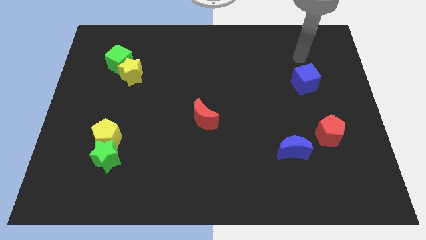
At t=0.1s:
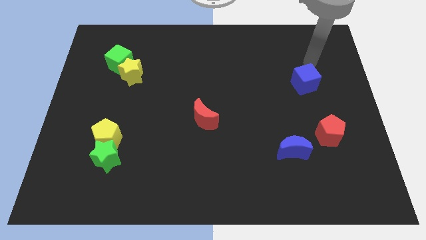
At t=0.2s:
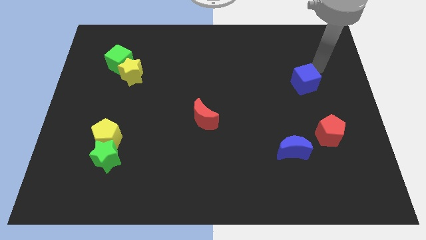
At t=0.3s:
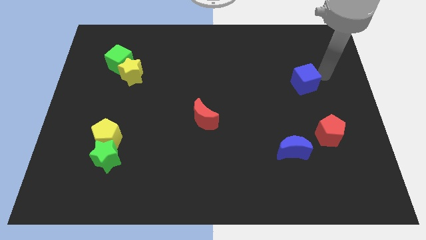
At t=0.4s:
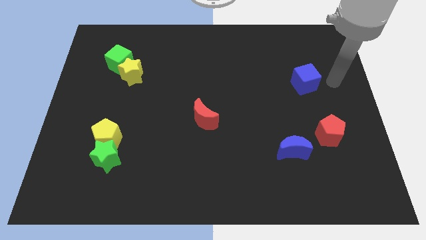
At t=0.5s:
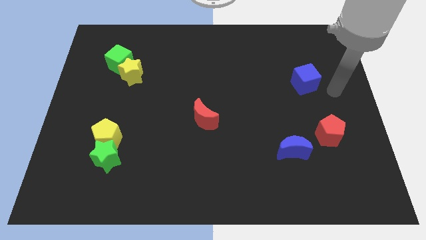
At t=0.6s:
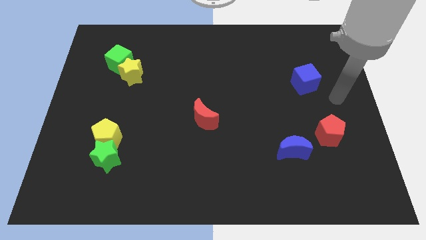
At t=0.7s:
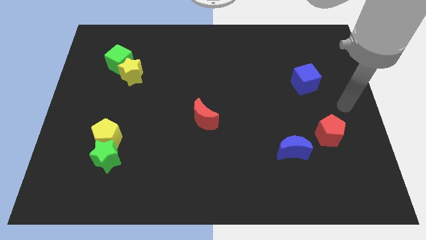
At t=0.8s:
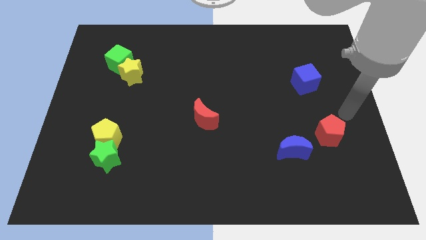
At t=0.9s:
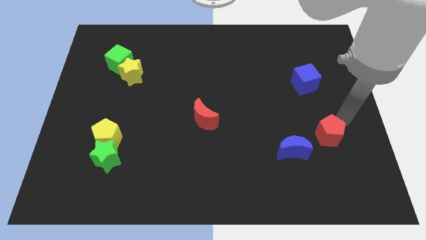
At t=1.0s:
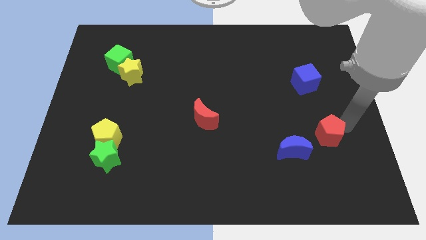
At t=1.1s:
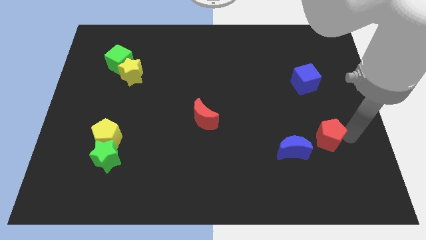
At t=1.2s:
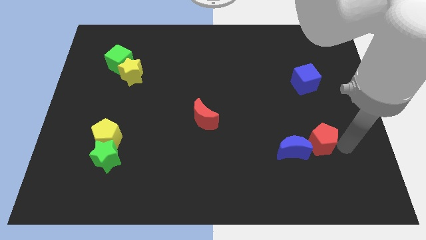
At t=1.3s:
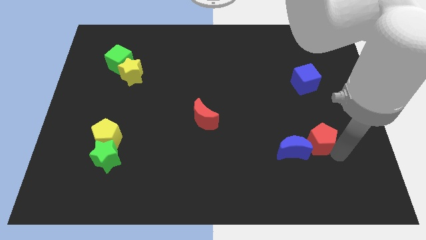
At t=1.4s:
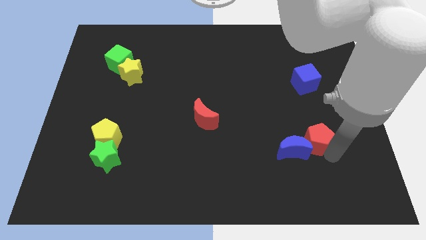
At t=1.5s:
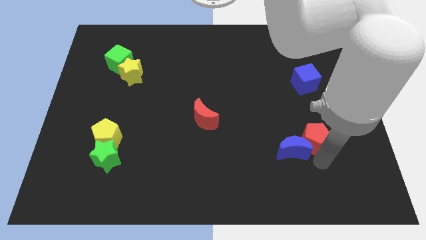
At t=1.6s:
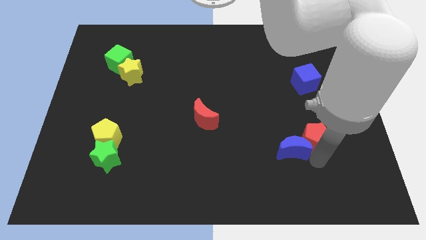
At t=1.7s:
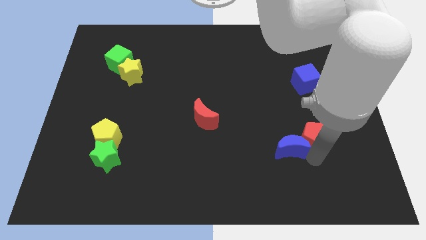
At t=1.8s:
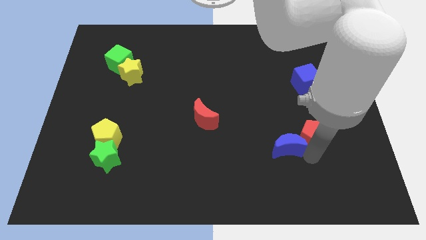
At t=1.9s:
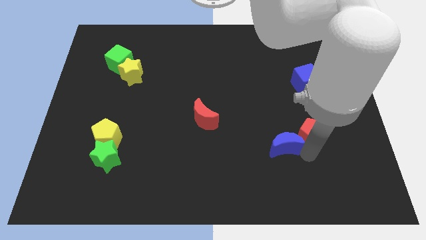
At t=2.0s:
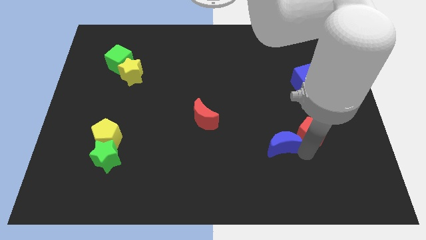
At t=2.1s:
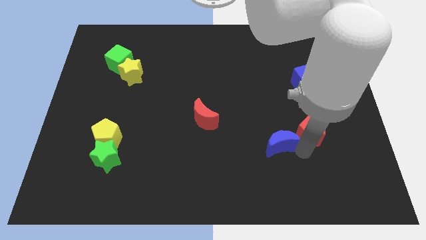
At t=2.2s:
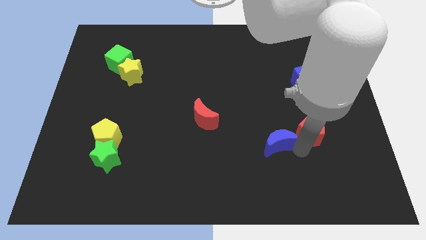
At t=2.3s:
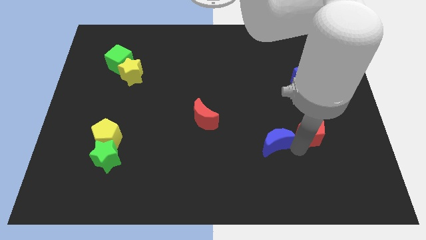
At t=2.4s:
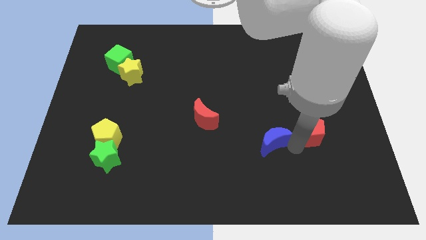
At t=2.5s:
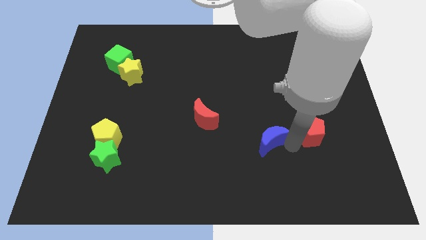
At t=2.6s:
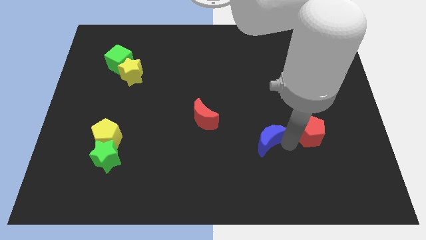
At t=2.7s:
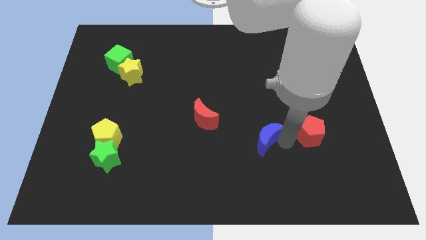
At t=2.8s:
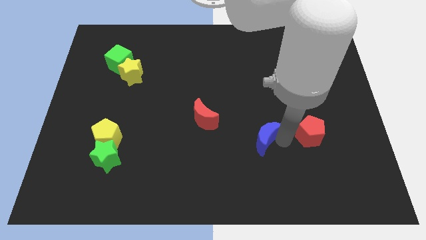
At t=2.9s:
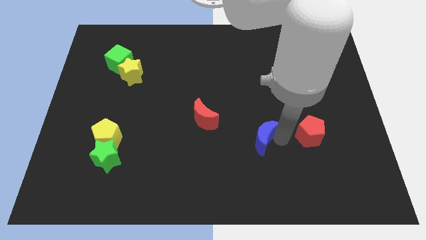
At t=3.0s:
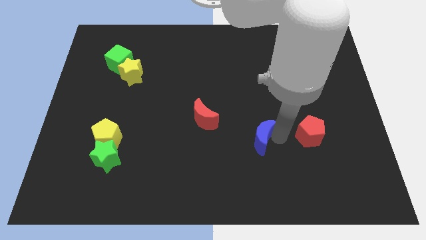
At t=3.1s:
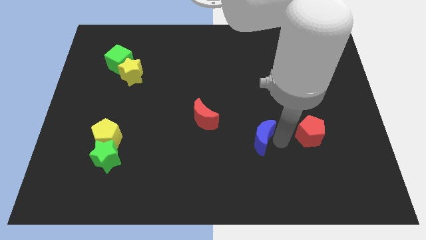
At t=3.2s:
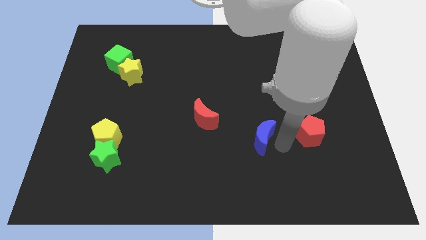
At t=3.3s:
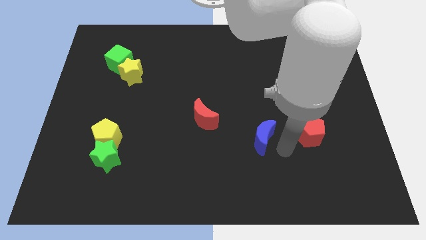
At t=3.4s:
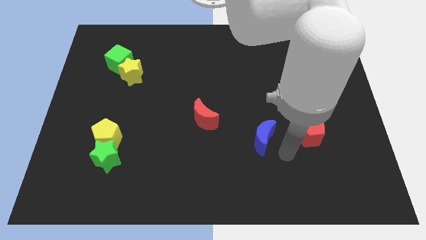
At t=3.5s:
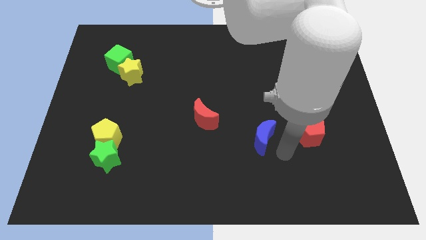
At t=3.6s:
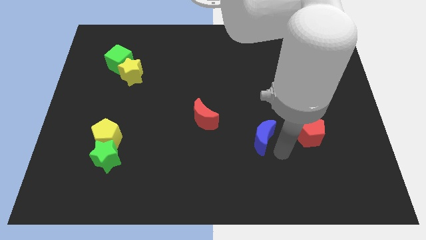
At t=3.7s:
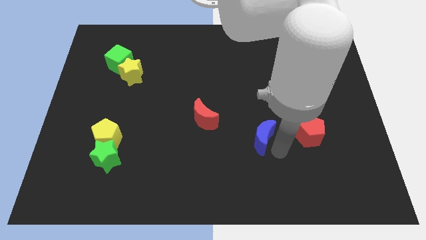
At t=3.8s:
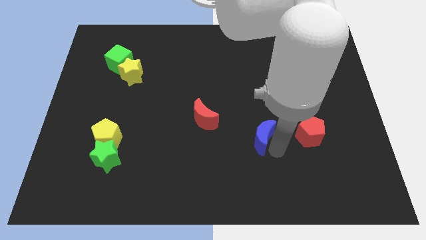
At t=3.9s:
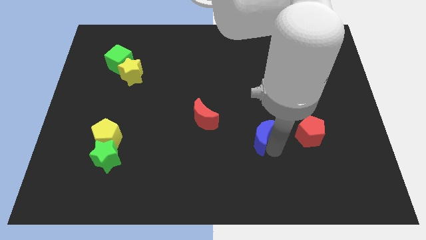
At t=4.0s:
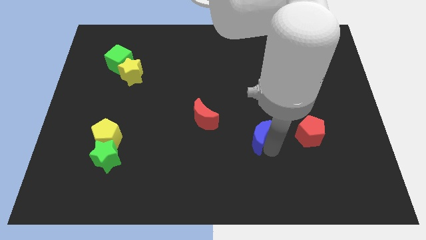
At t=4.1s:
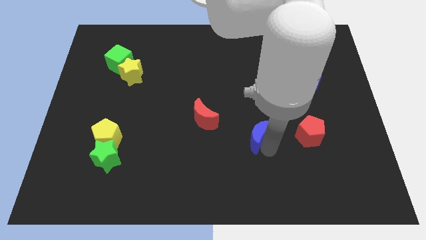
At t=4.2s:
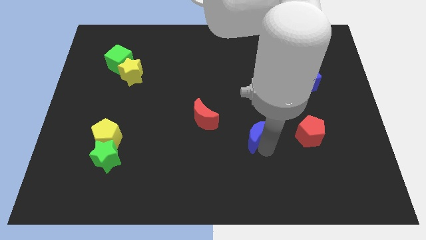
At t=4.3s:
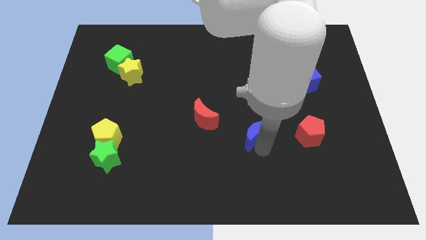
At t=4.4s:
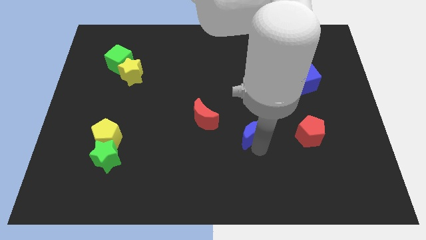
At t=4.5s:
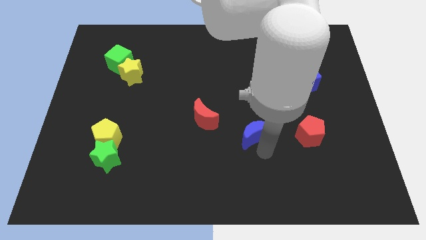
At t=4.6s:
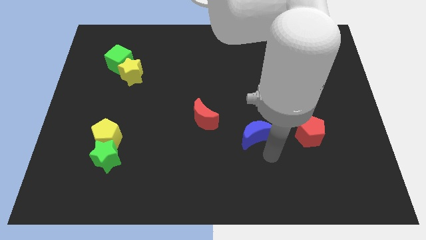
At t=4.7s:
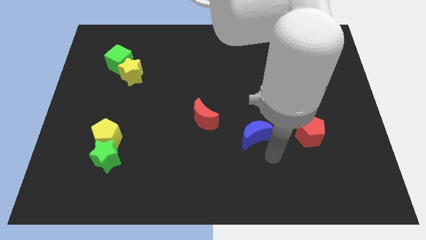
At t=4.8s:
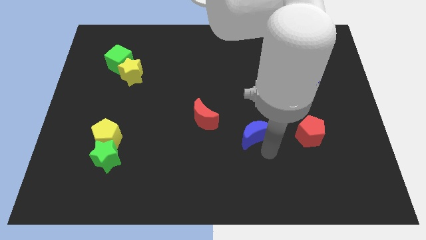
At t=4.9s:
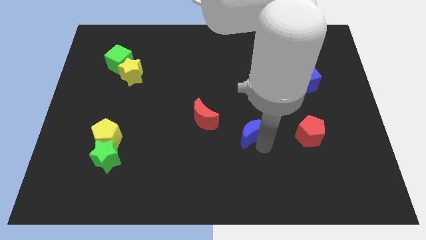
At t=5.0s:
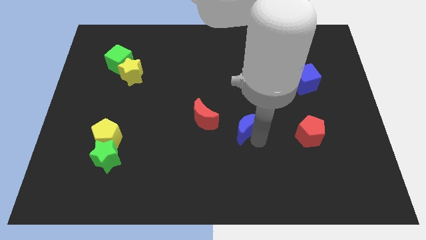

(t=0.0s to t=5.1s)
push the blue moon to the center

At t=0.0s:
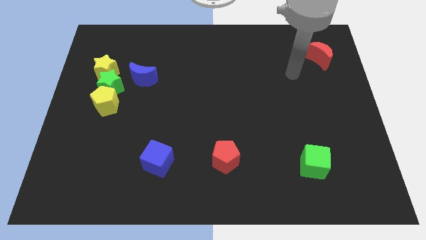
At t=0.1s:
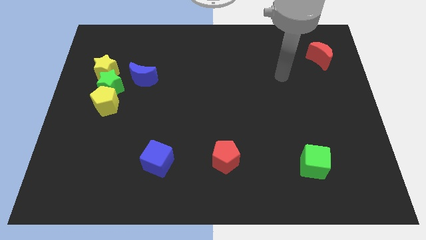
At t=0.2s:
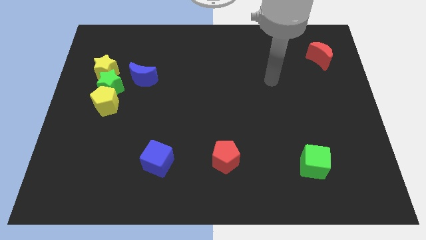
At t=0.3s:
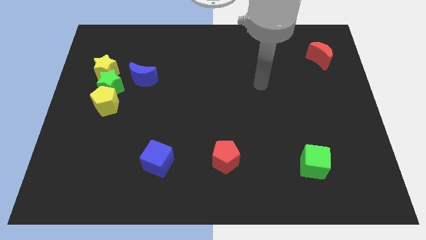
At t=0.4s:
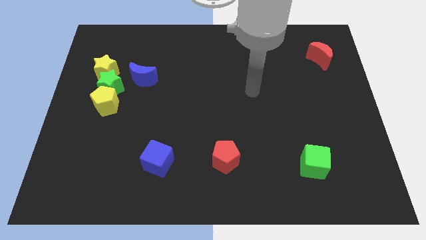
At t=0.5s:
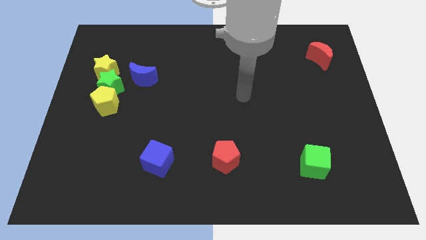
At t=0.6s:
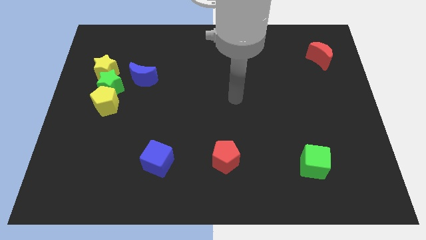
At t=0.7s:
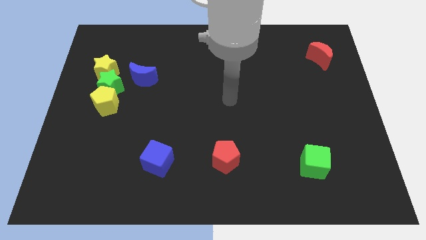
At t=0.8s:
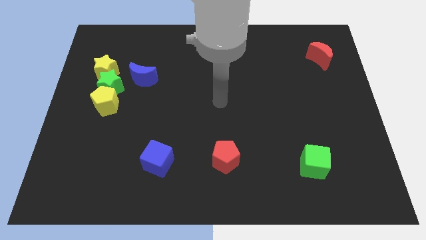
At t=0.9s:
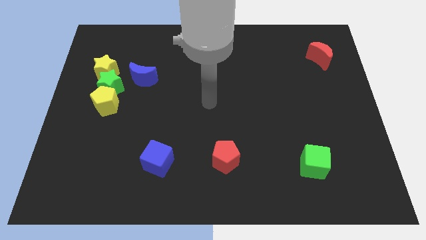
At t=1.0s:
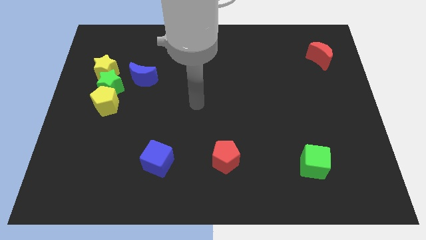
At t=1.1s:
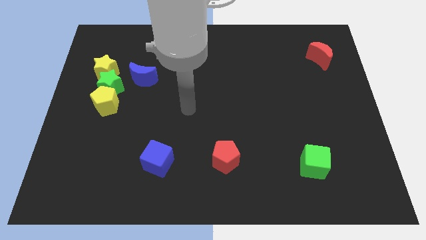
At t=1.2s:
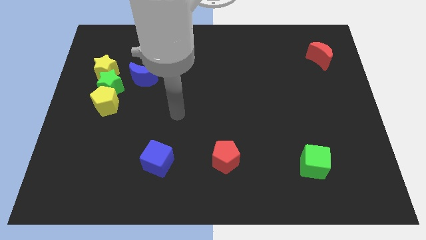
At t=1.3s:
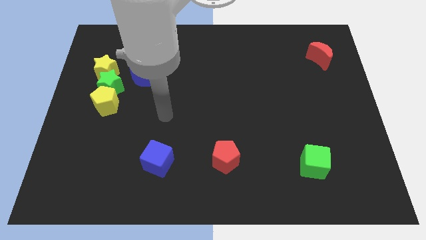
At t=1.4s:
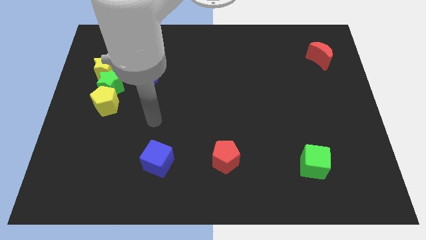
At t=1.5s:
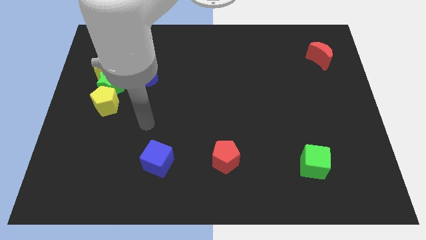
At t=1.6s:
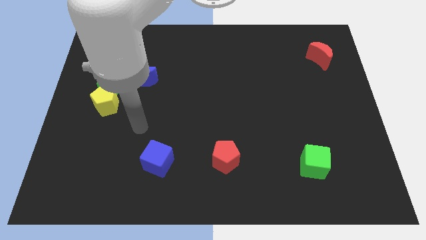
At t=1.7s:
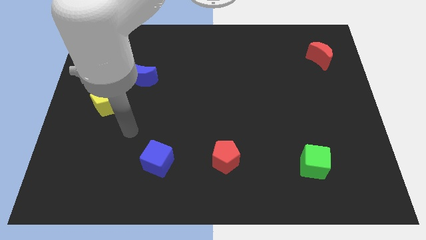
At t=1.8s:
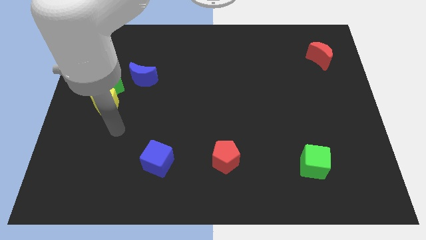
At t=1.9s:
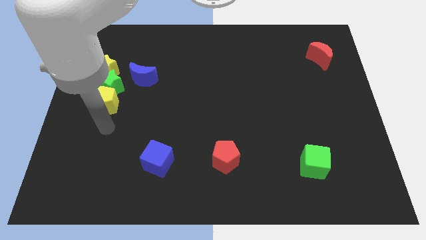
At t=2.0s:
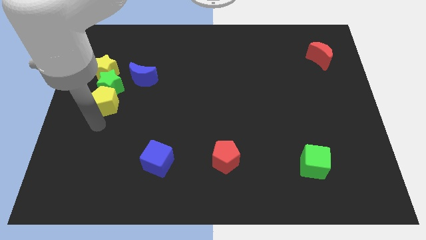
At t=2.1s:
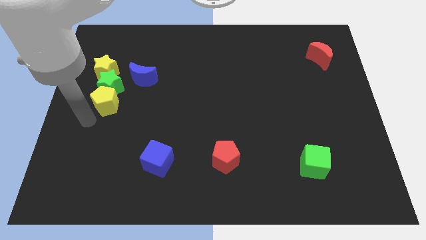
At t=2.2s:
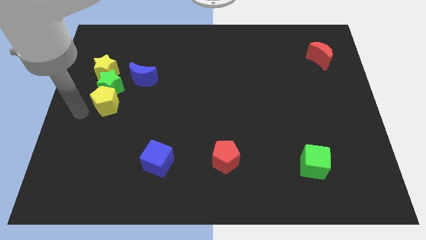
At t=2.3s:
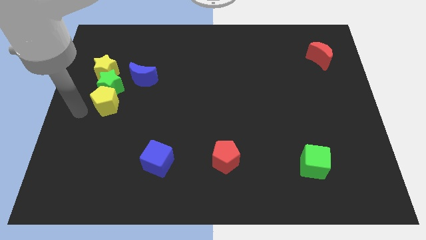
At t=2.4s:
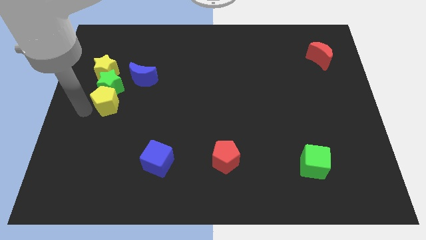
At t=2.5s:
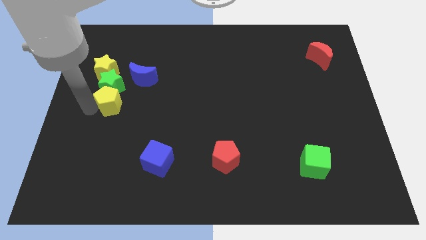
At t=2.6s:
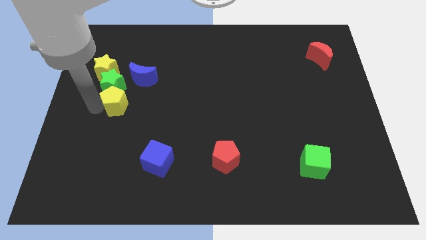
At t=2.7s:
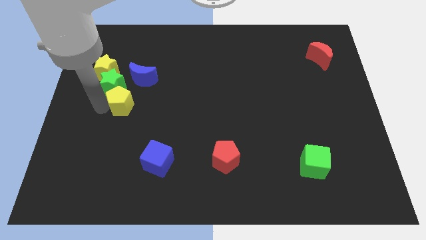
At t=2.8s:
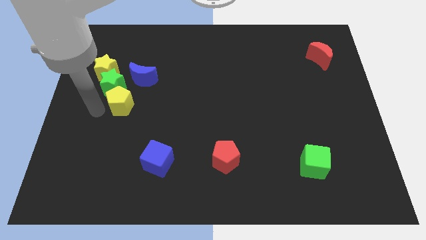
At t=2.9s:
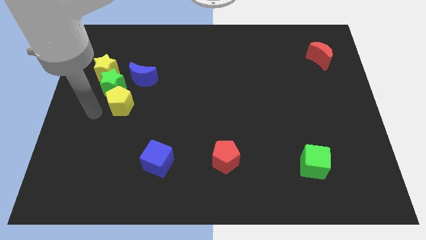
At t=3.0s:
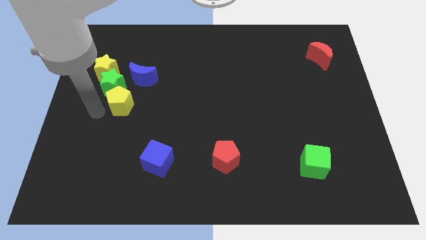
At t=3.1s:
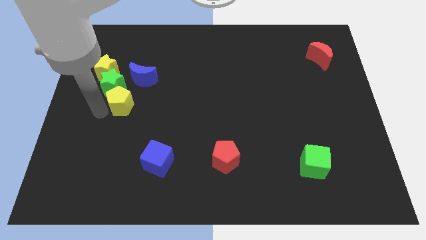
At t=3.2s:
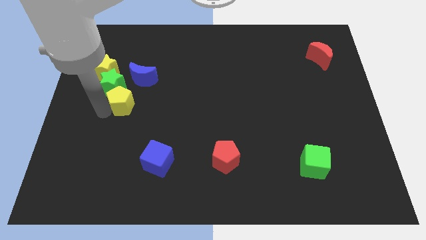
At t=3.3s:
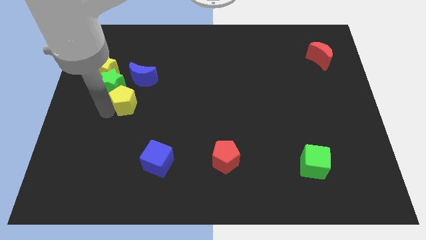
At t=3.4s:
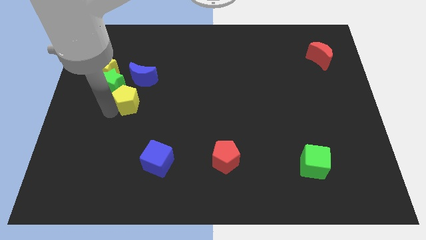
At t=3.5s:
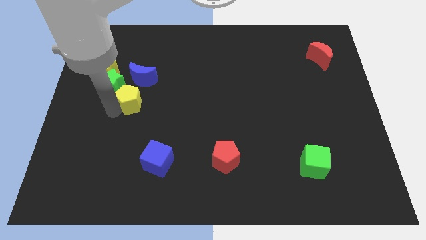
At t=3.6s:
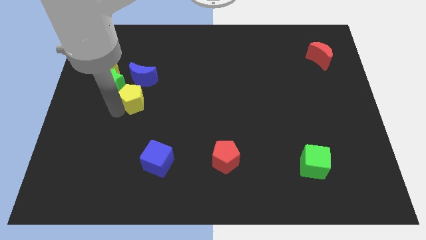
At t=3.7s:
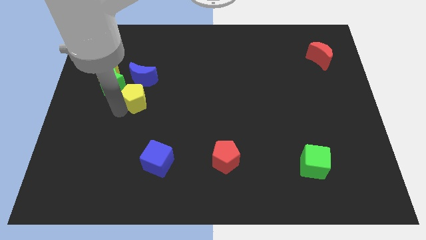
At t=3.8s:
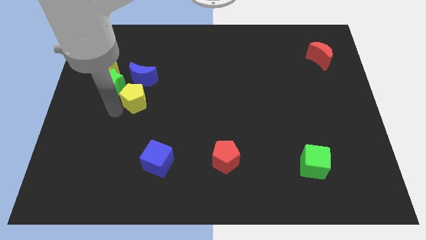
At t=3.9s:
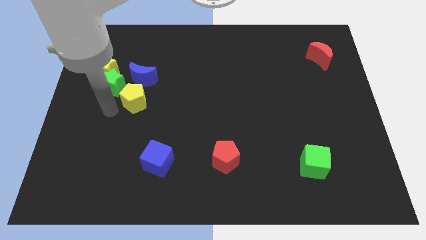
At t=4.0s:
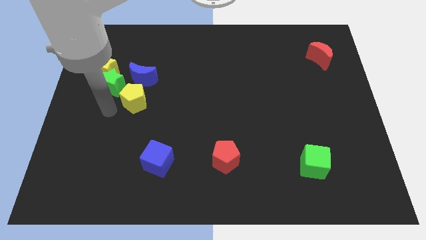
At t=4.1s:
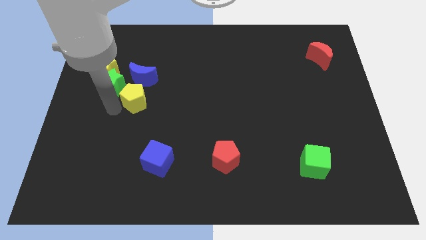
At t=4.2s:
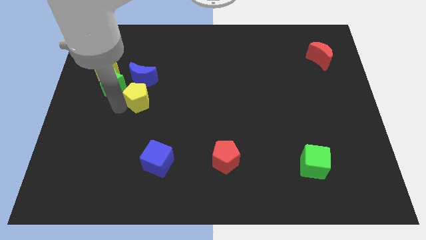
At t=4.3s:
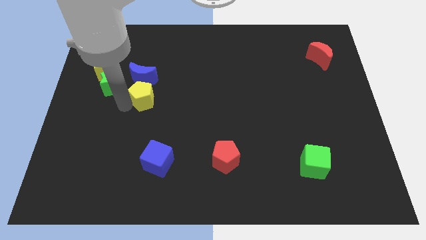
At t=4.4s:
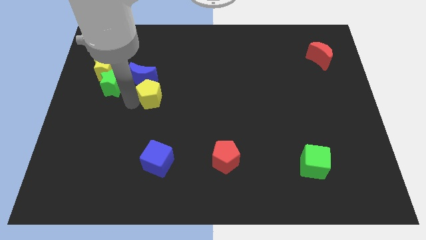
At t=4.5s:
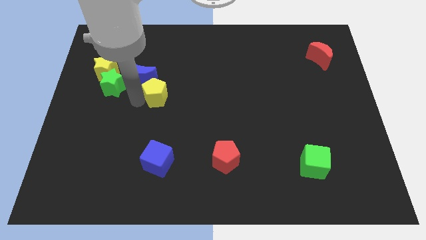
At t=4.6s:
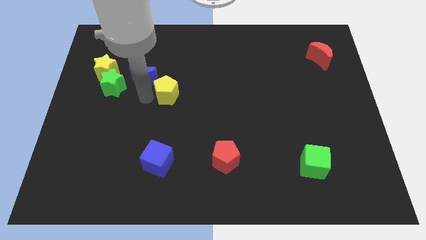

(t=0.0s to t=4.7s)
slide the yellow pentagon to the middle
